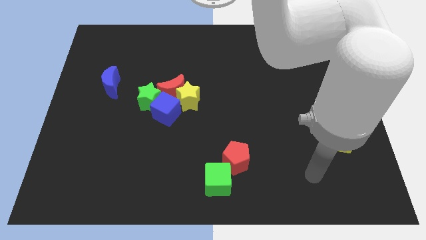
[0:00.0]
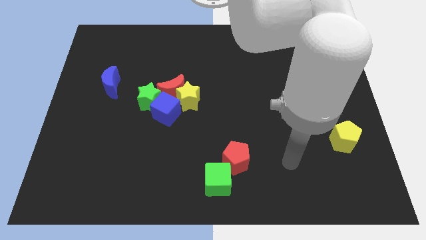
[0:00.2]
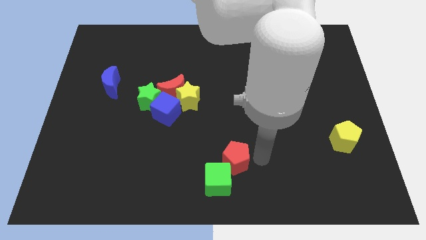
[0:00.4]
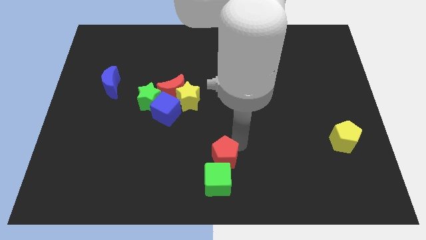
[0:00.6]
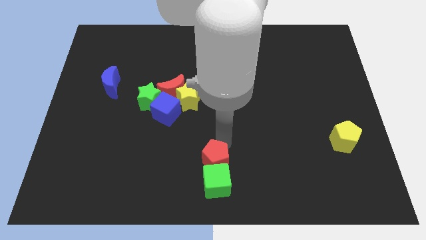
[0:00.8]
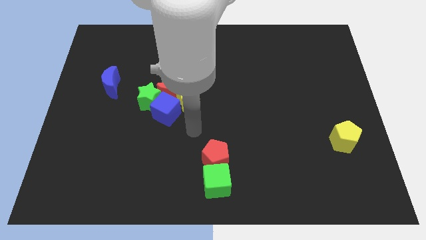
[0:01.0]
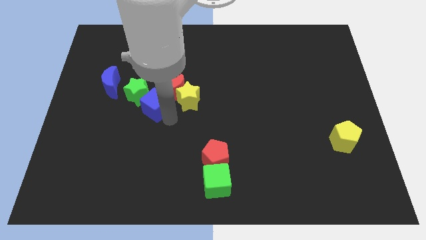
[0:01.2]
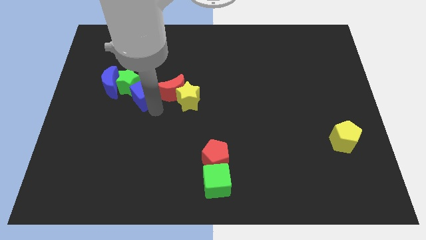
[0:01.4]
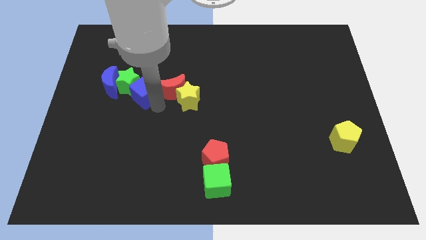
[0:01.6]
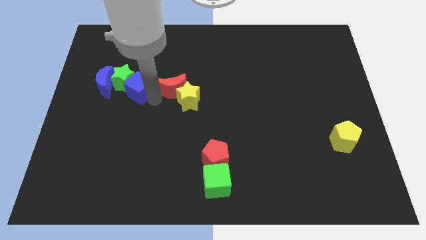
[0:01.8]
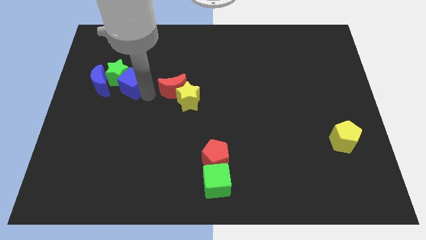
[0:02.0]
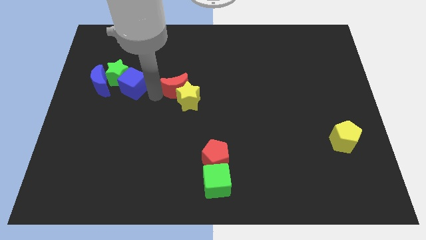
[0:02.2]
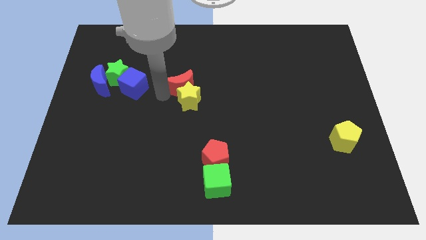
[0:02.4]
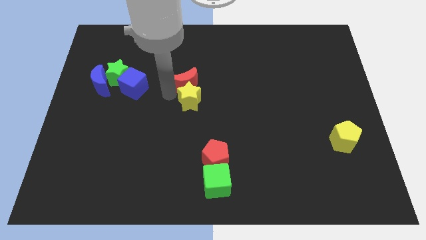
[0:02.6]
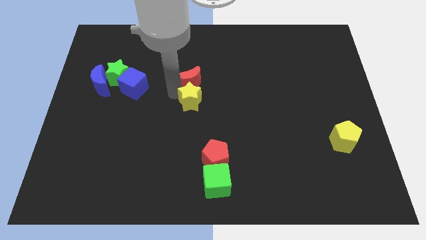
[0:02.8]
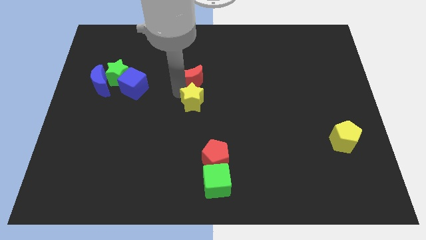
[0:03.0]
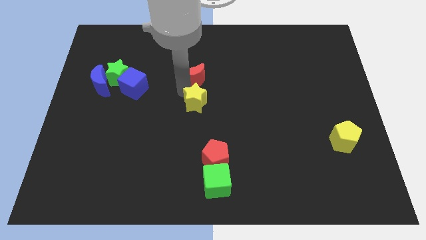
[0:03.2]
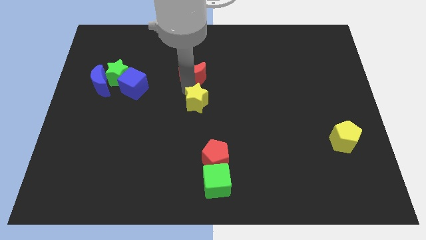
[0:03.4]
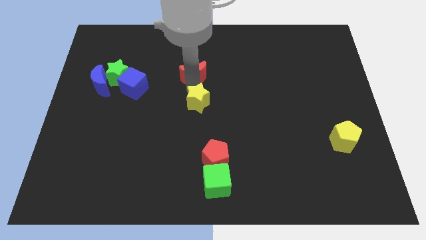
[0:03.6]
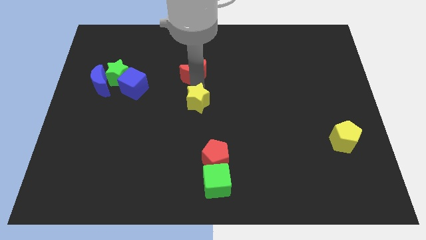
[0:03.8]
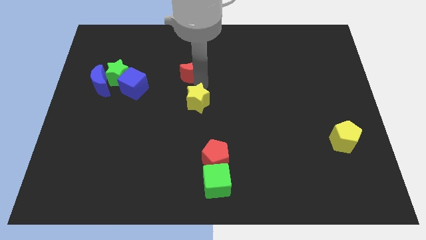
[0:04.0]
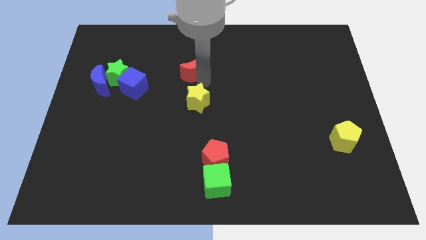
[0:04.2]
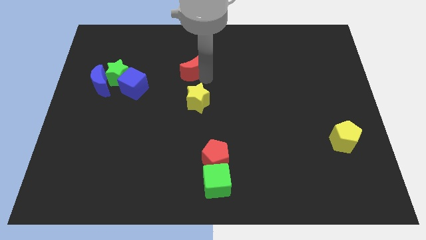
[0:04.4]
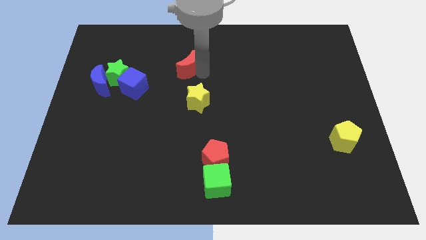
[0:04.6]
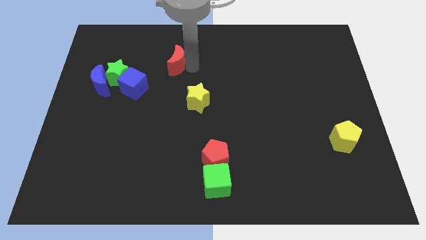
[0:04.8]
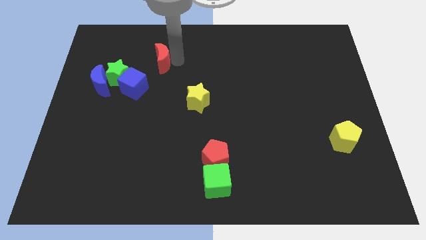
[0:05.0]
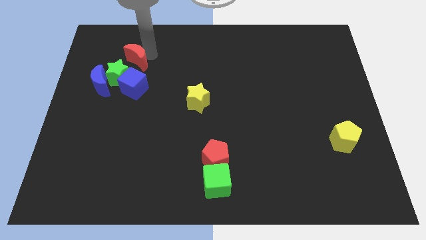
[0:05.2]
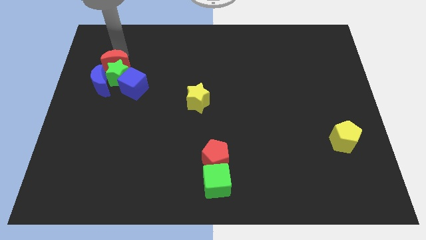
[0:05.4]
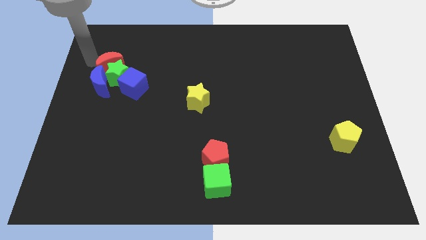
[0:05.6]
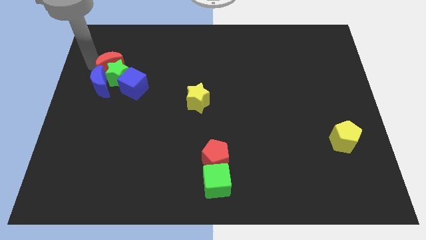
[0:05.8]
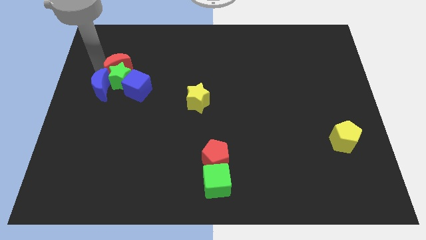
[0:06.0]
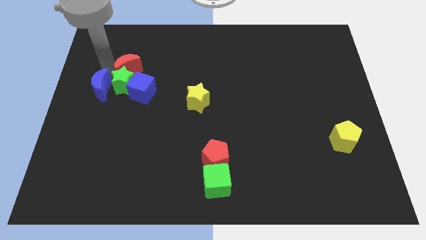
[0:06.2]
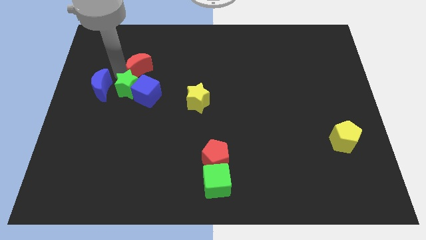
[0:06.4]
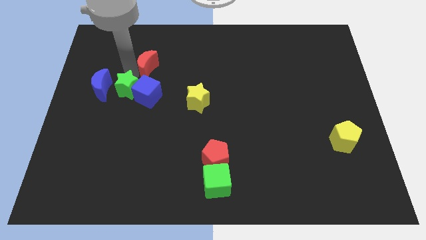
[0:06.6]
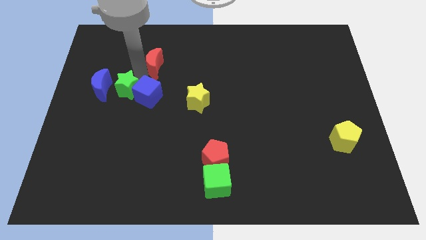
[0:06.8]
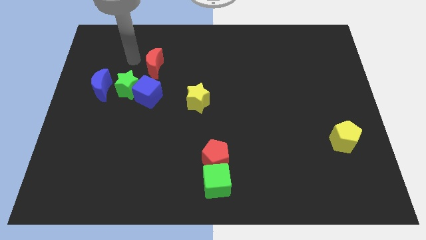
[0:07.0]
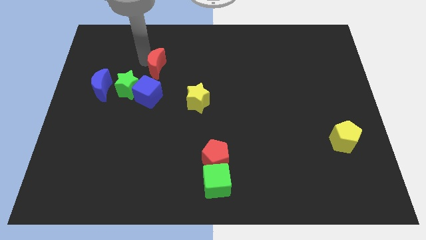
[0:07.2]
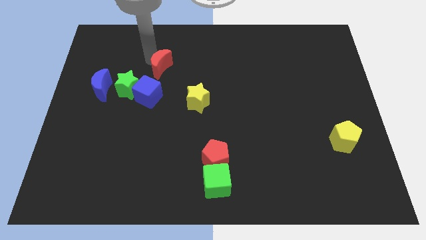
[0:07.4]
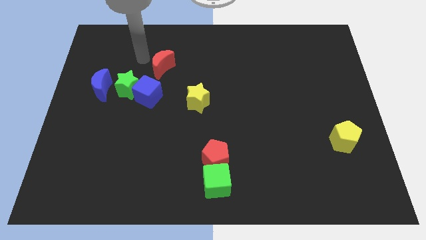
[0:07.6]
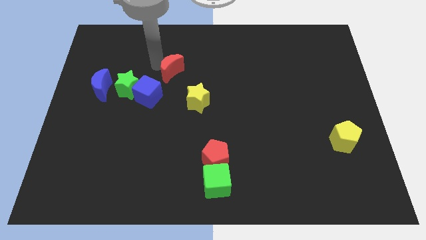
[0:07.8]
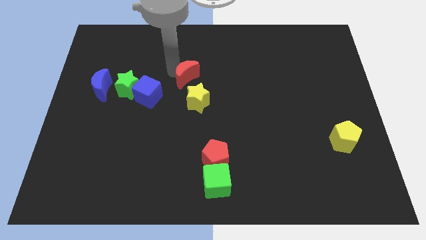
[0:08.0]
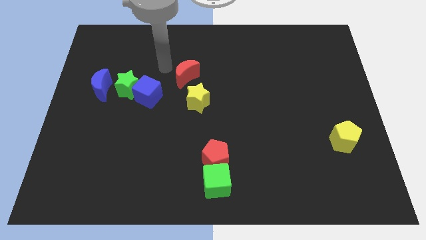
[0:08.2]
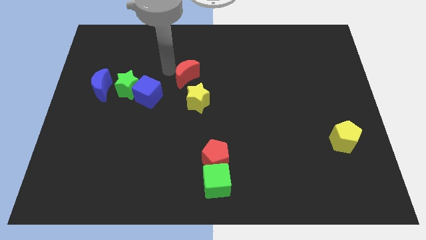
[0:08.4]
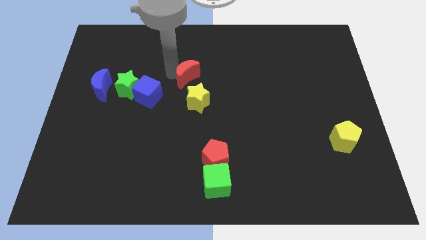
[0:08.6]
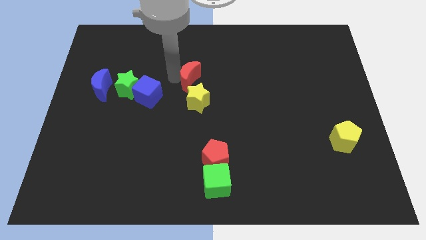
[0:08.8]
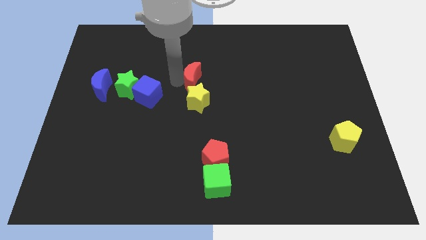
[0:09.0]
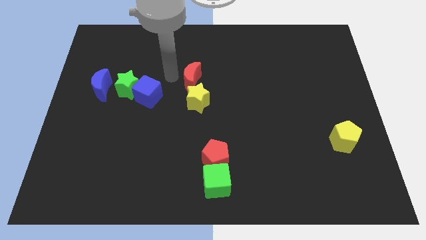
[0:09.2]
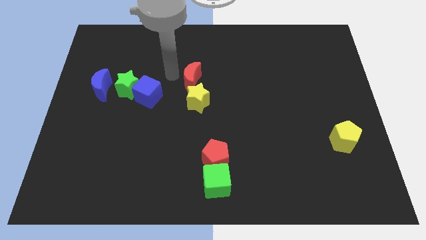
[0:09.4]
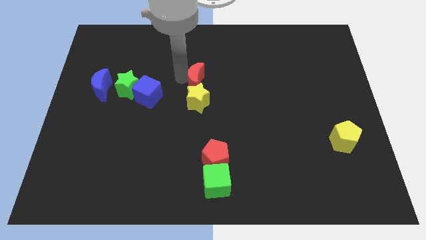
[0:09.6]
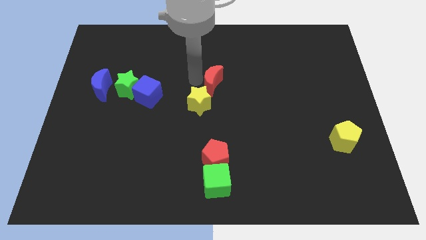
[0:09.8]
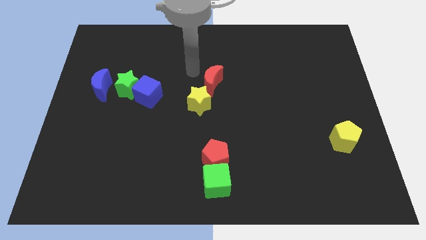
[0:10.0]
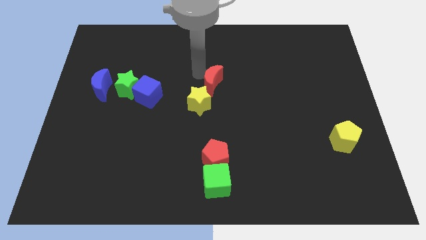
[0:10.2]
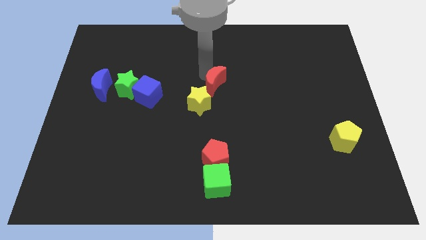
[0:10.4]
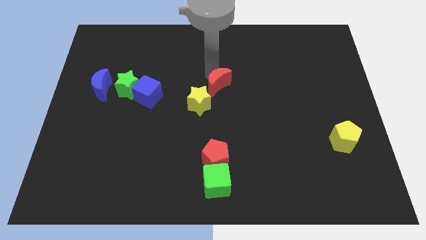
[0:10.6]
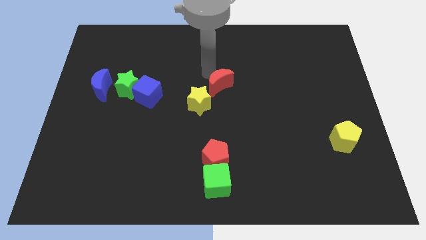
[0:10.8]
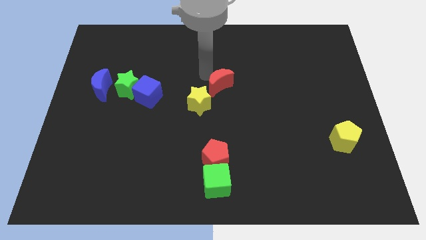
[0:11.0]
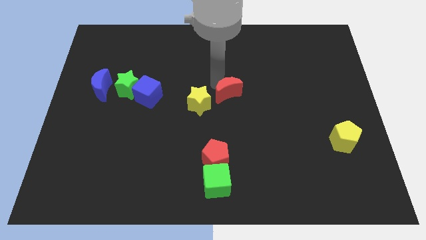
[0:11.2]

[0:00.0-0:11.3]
put the red moon to the right side of the yellow star

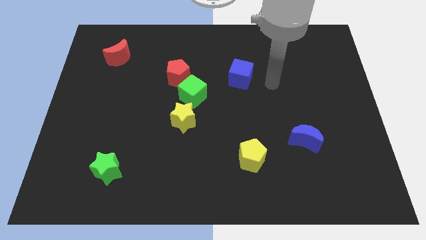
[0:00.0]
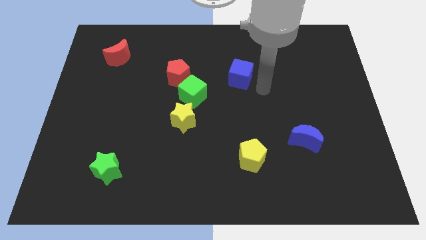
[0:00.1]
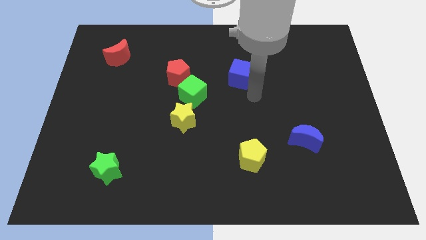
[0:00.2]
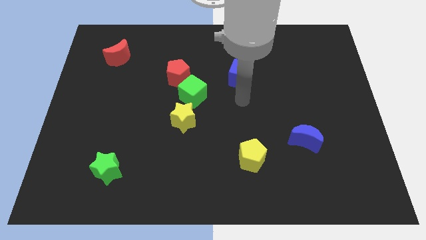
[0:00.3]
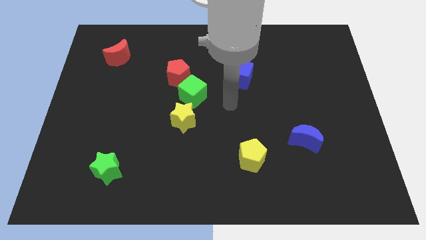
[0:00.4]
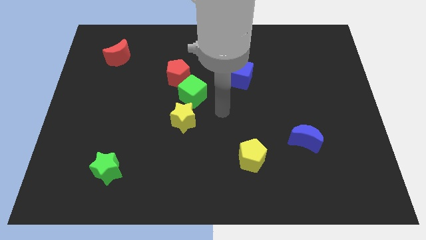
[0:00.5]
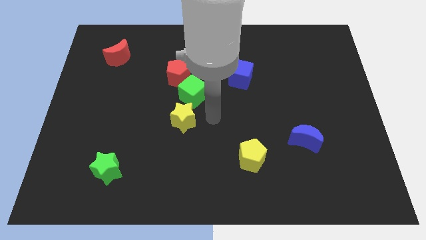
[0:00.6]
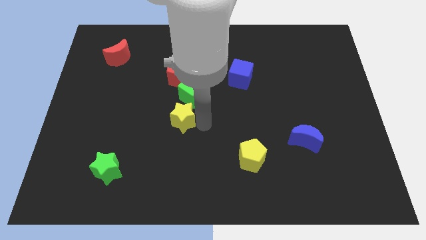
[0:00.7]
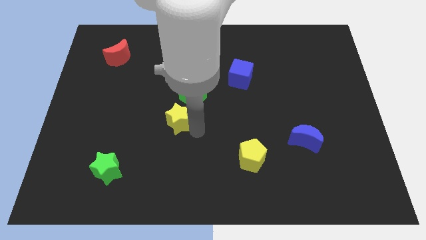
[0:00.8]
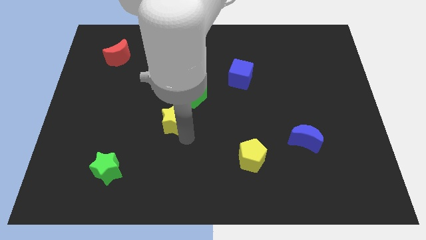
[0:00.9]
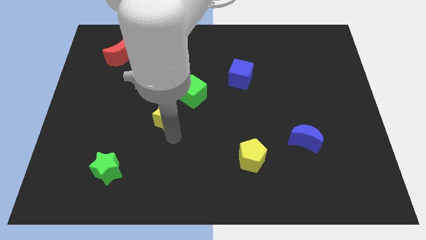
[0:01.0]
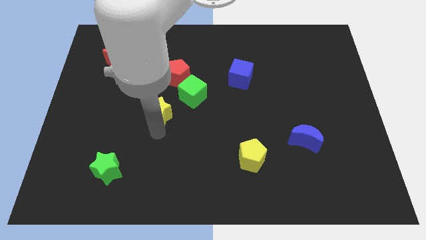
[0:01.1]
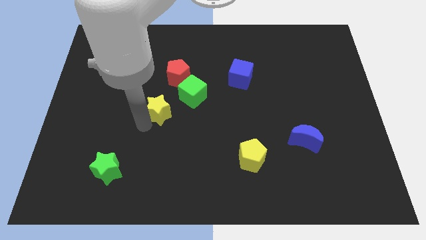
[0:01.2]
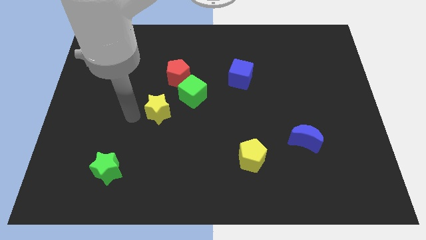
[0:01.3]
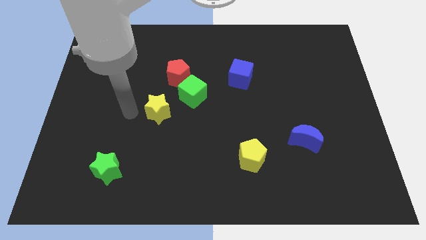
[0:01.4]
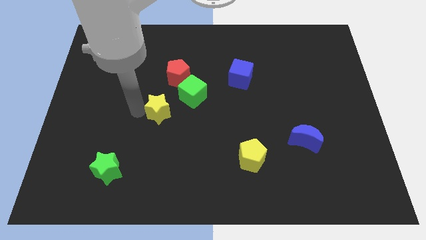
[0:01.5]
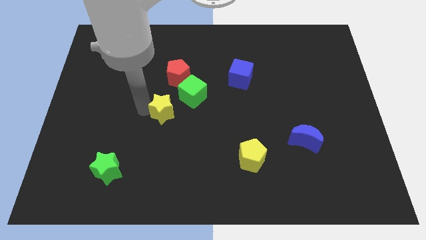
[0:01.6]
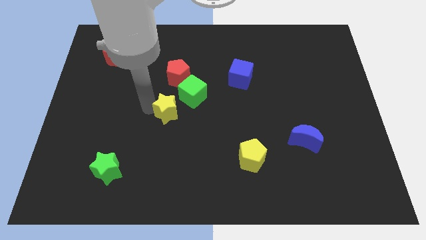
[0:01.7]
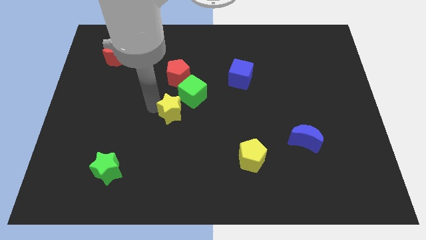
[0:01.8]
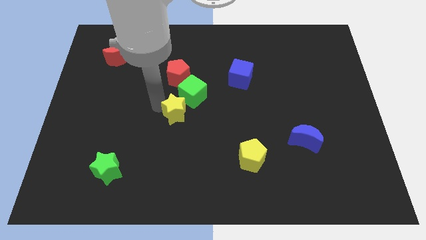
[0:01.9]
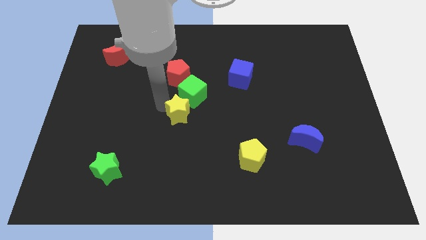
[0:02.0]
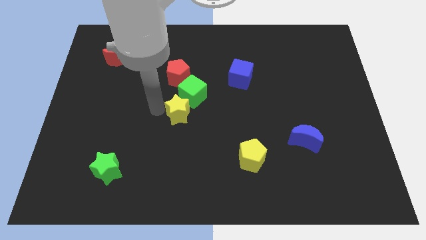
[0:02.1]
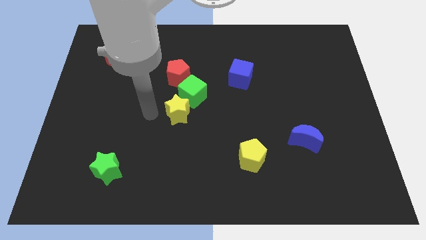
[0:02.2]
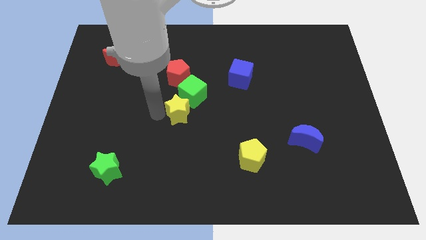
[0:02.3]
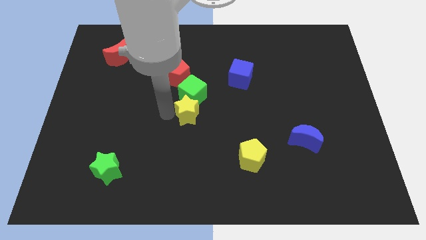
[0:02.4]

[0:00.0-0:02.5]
put the yellow star diagonally down and to the right of the green cube
